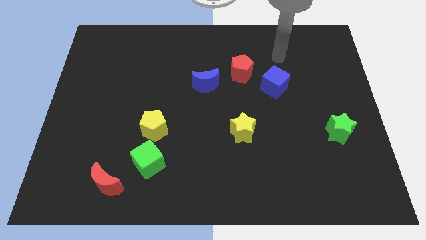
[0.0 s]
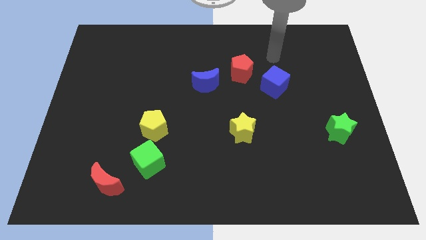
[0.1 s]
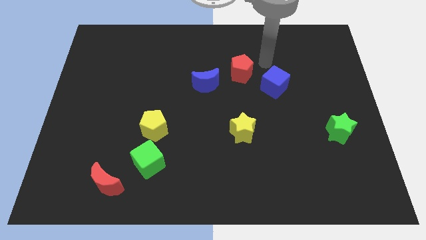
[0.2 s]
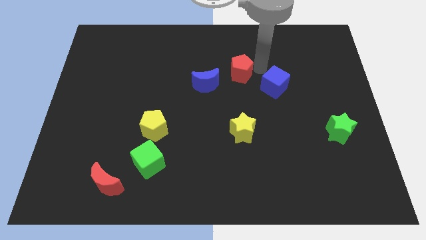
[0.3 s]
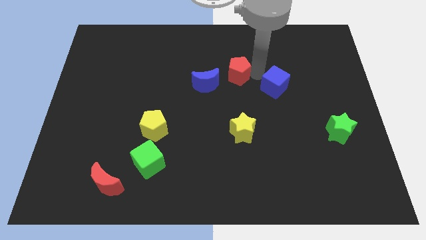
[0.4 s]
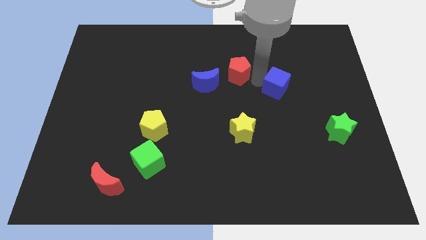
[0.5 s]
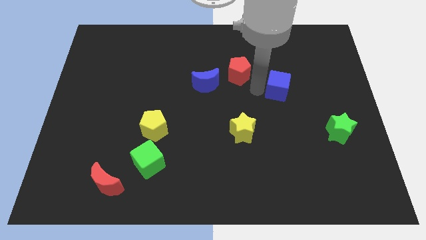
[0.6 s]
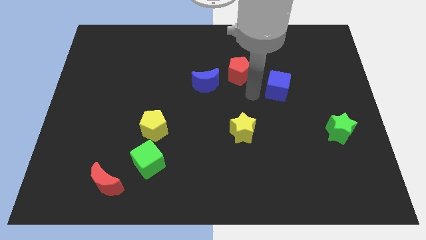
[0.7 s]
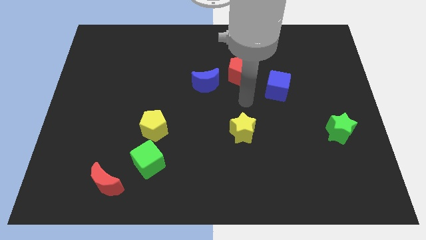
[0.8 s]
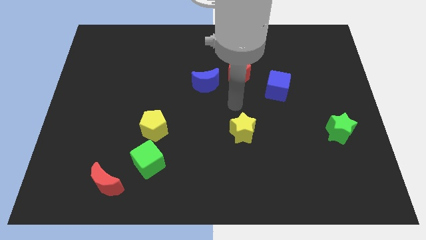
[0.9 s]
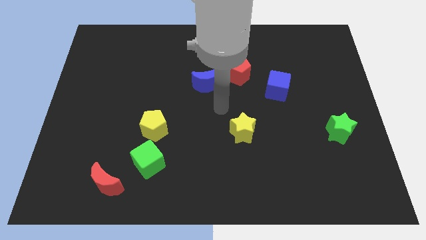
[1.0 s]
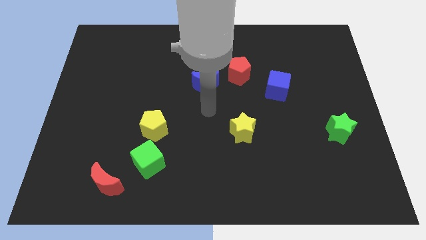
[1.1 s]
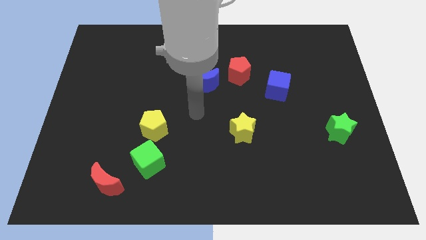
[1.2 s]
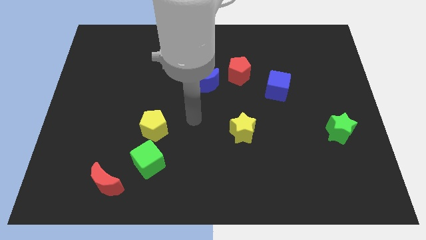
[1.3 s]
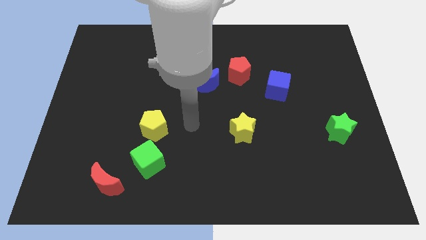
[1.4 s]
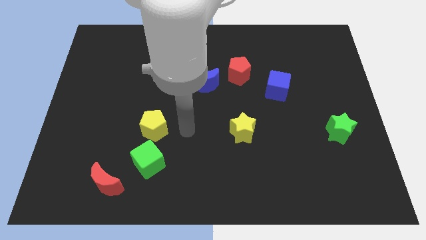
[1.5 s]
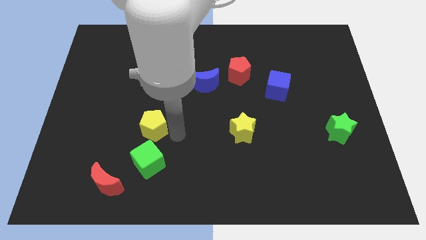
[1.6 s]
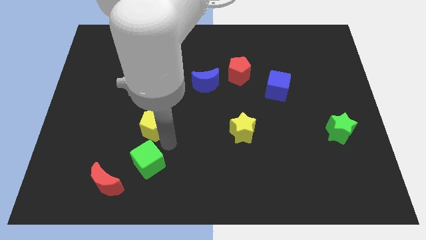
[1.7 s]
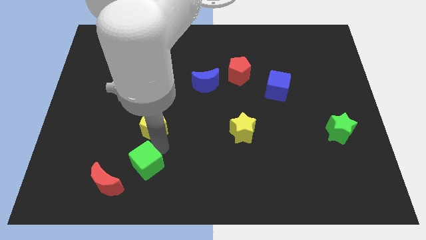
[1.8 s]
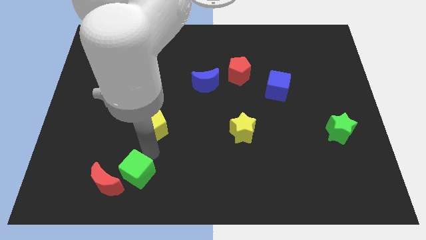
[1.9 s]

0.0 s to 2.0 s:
separate the yellow pentagon from the green cube

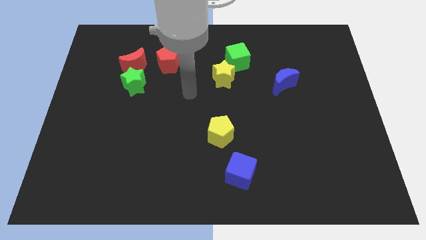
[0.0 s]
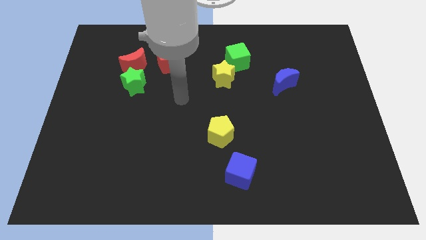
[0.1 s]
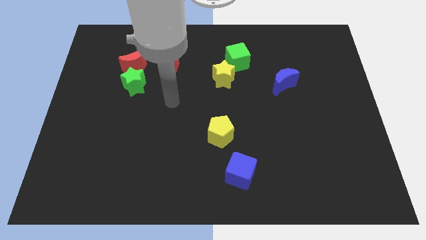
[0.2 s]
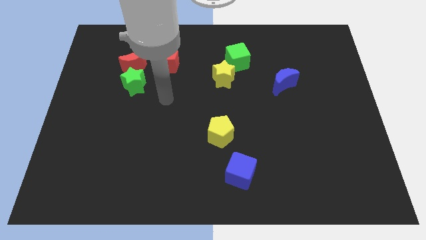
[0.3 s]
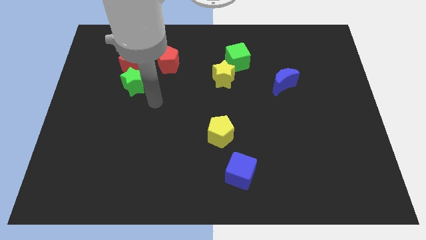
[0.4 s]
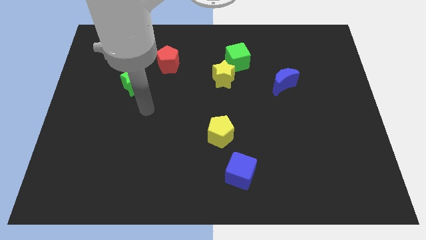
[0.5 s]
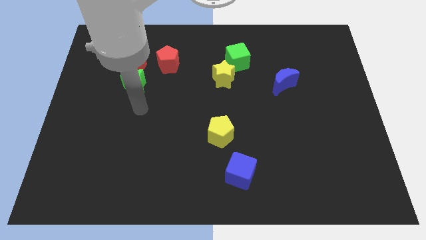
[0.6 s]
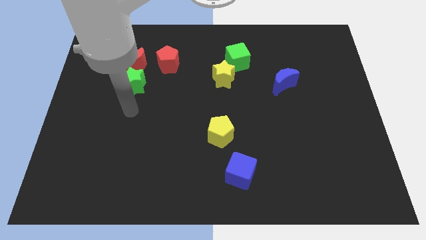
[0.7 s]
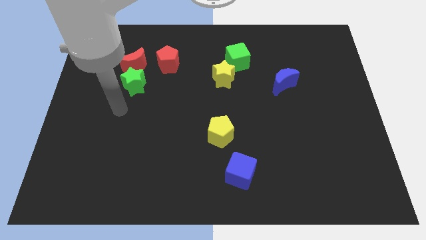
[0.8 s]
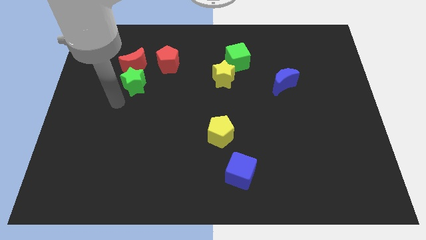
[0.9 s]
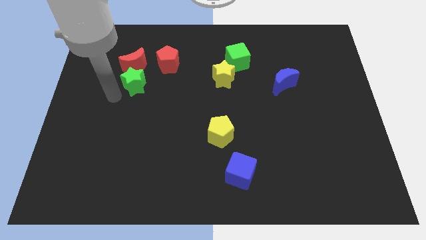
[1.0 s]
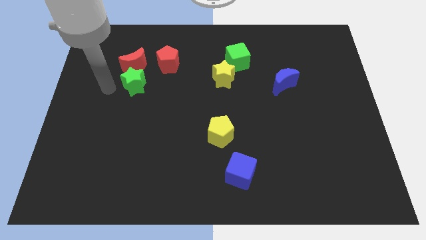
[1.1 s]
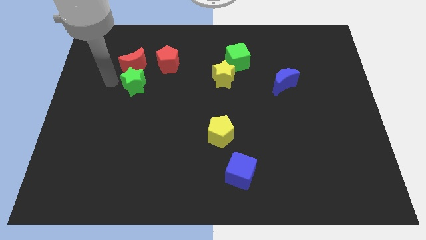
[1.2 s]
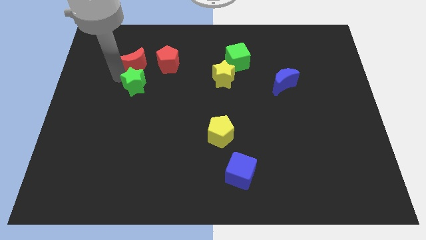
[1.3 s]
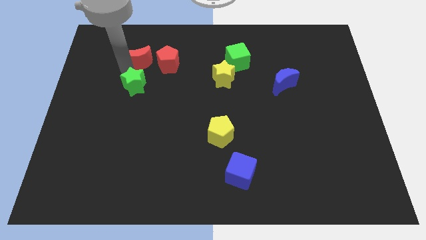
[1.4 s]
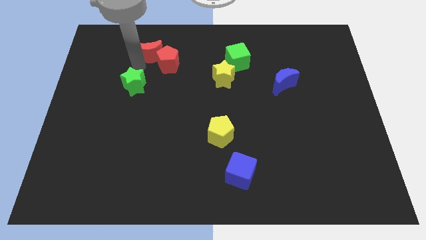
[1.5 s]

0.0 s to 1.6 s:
move the green star away from the red moon

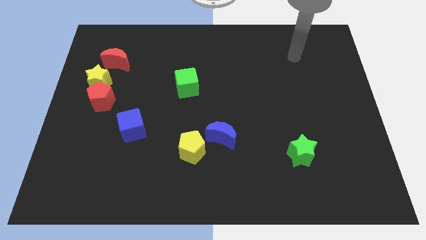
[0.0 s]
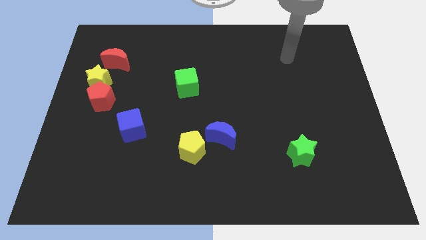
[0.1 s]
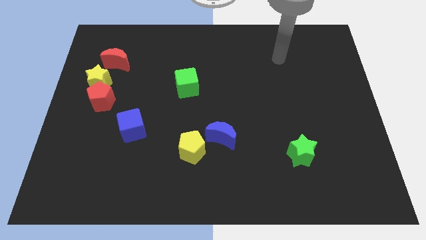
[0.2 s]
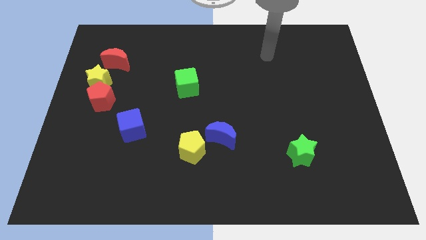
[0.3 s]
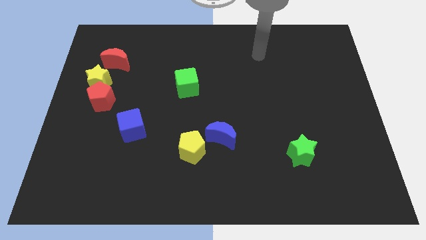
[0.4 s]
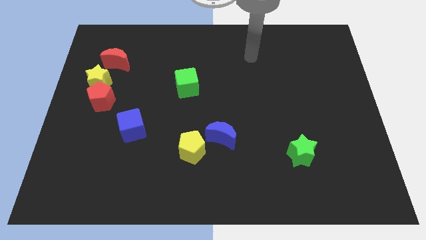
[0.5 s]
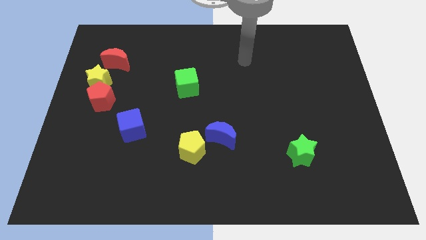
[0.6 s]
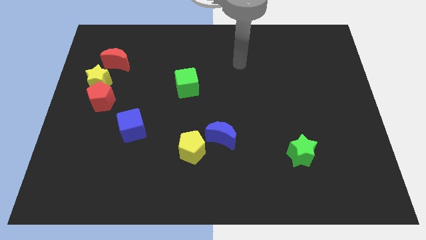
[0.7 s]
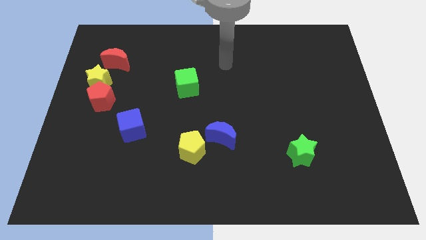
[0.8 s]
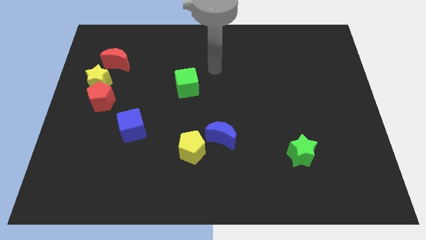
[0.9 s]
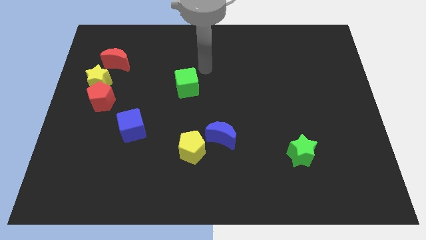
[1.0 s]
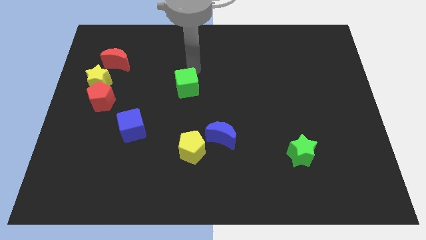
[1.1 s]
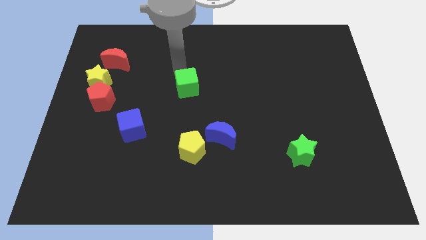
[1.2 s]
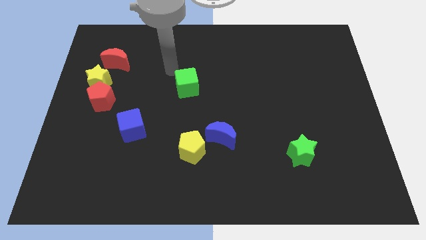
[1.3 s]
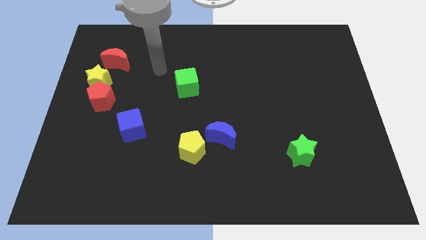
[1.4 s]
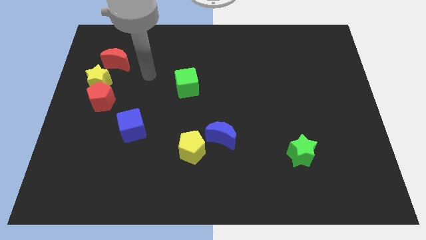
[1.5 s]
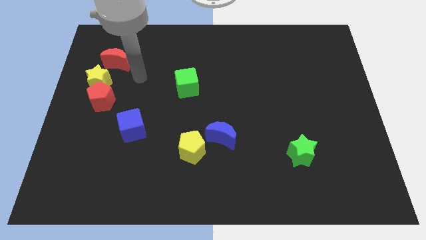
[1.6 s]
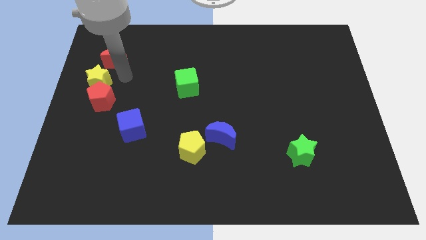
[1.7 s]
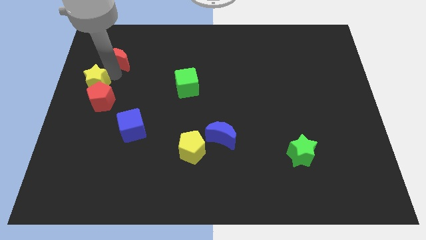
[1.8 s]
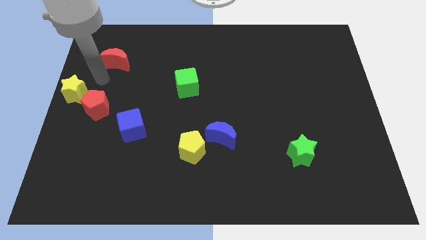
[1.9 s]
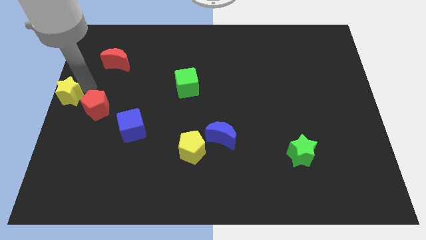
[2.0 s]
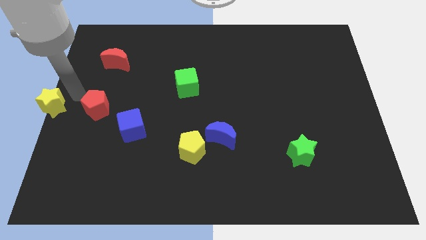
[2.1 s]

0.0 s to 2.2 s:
move the red pentagon away from the yellow star

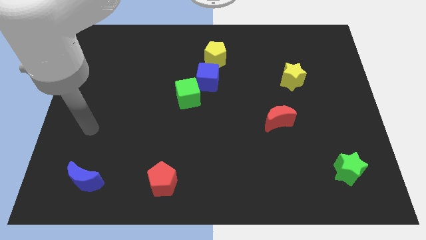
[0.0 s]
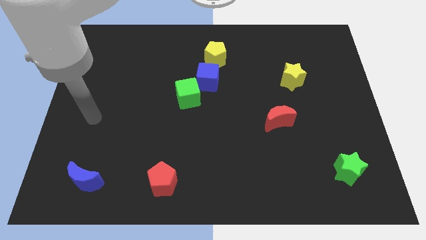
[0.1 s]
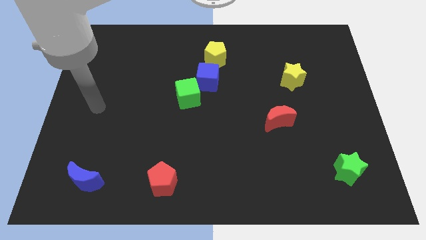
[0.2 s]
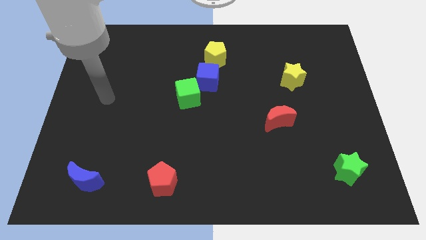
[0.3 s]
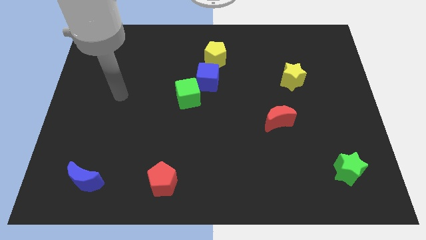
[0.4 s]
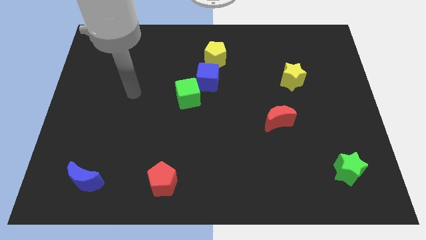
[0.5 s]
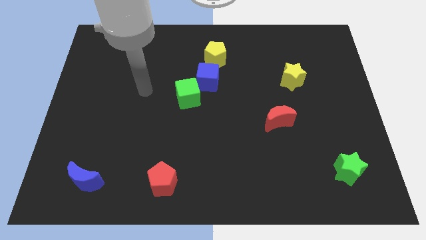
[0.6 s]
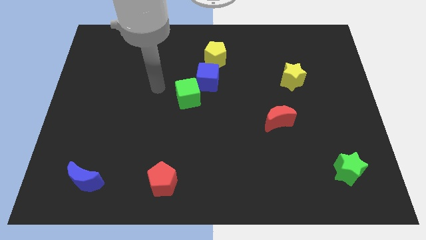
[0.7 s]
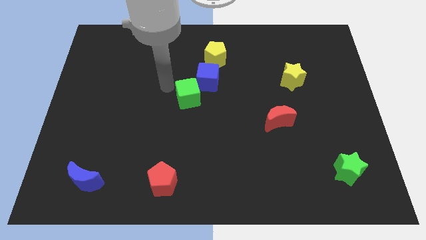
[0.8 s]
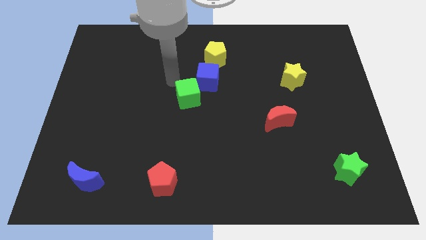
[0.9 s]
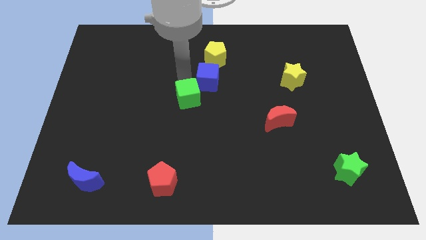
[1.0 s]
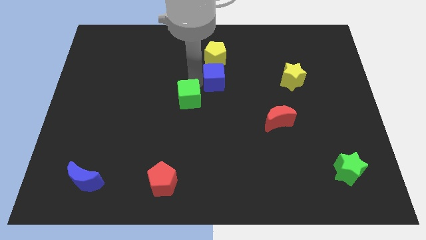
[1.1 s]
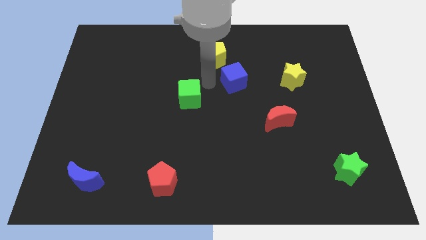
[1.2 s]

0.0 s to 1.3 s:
separate the green cube from the blue cube

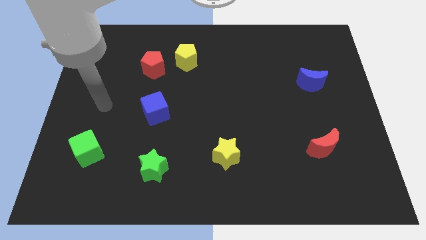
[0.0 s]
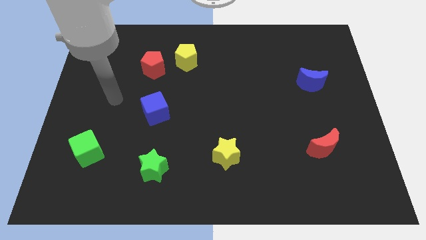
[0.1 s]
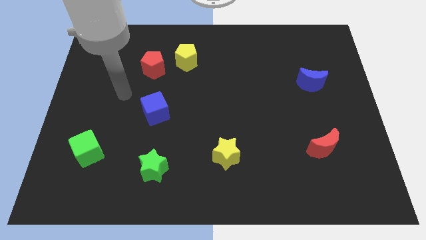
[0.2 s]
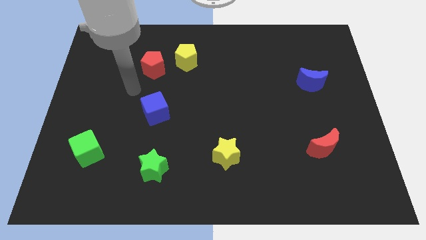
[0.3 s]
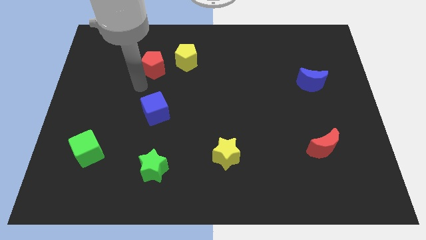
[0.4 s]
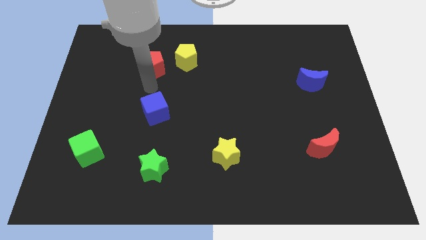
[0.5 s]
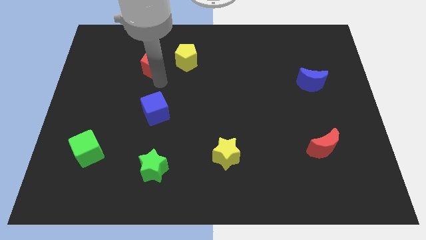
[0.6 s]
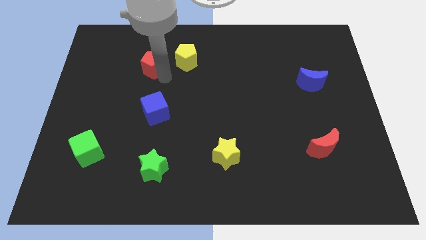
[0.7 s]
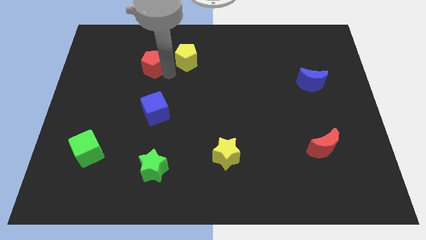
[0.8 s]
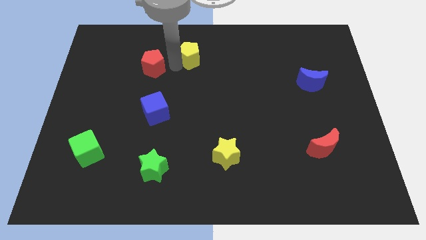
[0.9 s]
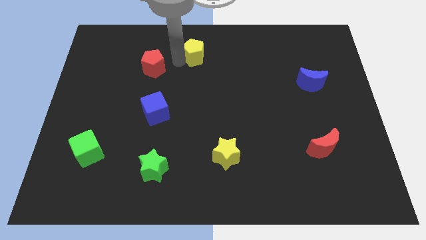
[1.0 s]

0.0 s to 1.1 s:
move the red pentagon away from the yellow pentagon

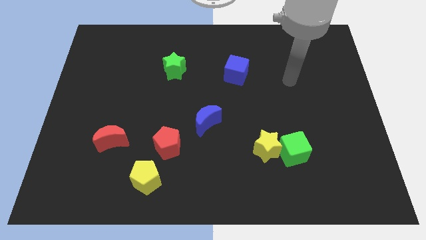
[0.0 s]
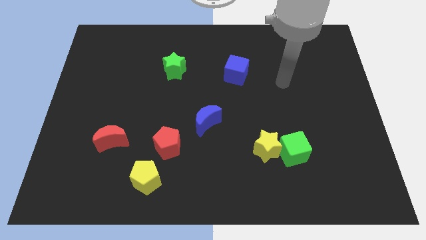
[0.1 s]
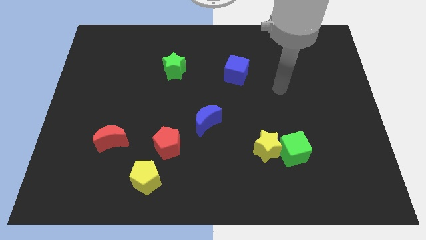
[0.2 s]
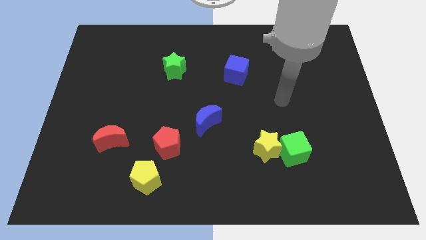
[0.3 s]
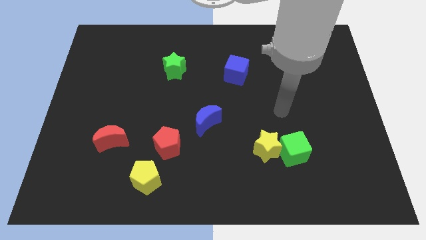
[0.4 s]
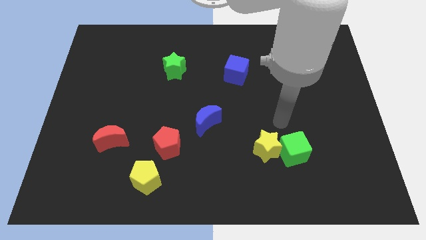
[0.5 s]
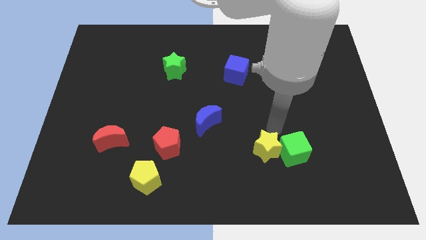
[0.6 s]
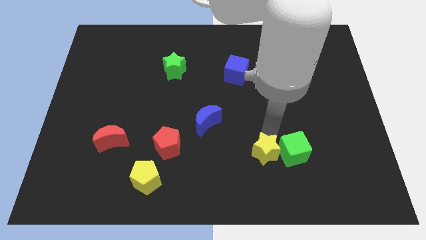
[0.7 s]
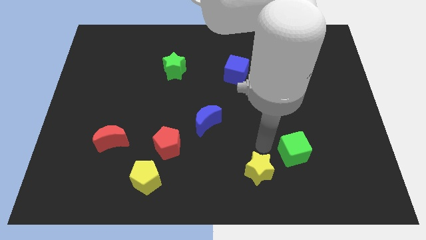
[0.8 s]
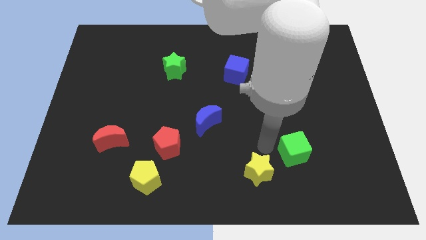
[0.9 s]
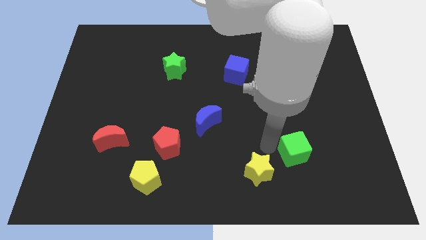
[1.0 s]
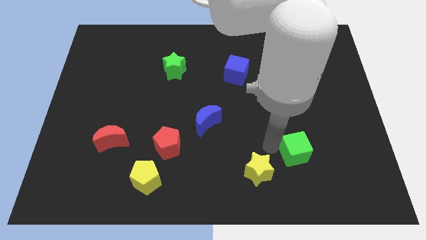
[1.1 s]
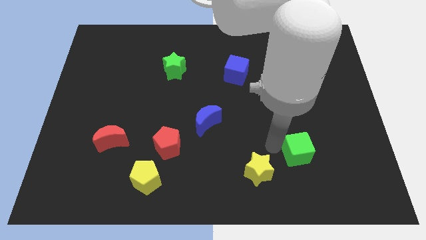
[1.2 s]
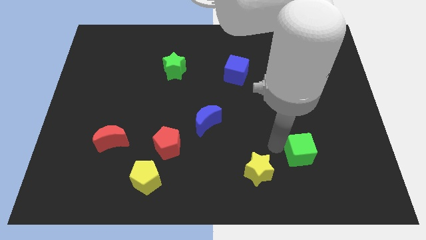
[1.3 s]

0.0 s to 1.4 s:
separate the green cube from the yellow star
